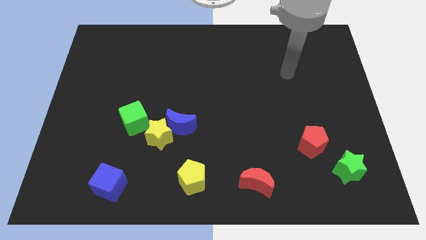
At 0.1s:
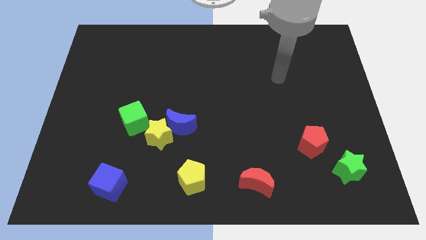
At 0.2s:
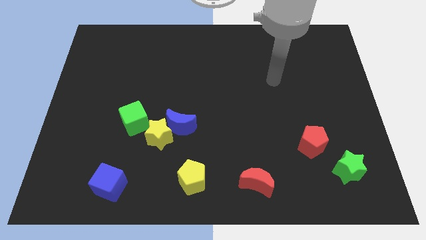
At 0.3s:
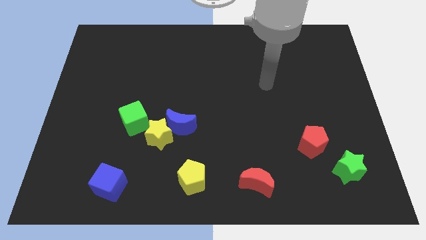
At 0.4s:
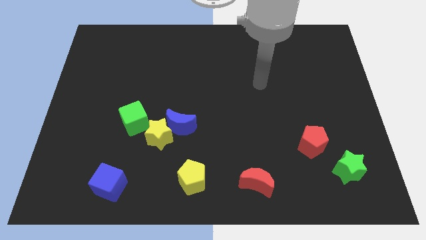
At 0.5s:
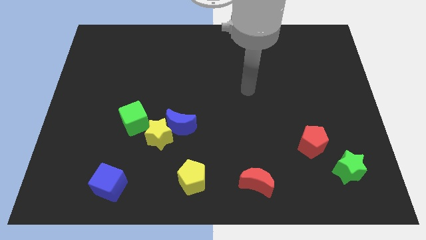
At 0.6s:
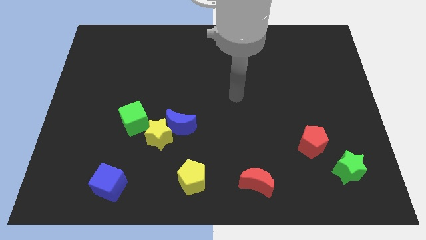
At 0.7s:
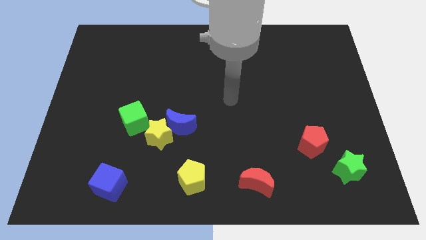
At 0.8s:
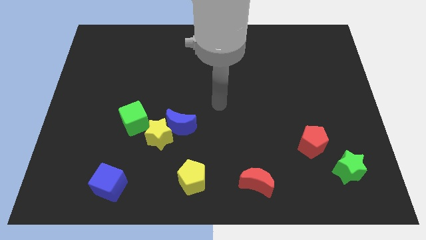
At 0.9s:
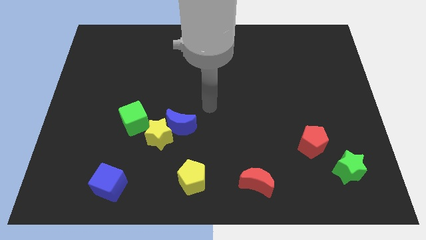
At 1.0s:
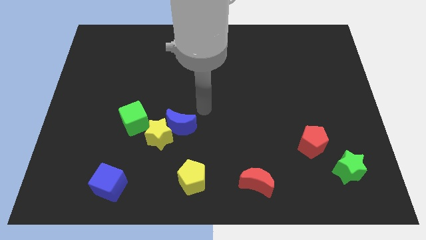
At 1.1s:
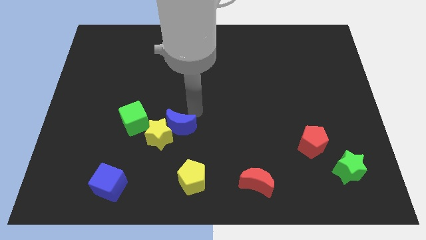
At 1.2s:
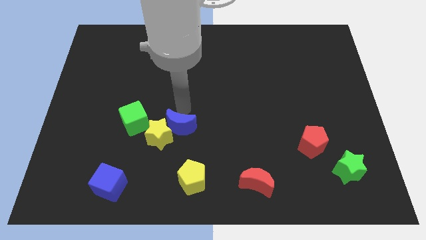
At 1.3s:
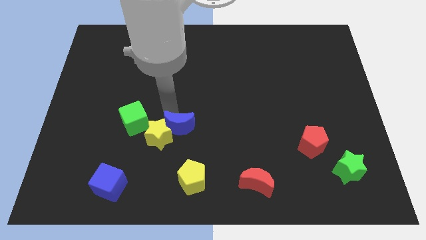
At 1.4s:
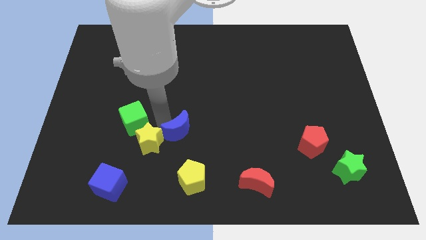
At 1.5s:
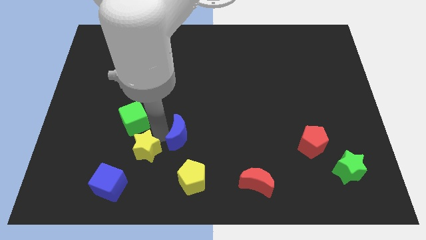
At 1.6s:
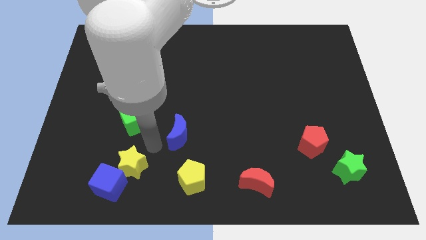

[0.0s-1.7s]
move the blue moon away from the yellow star

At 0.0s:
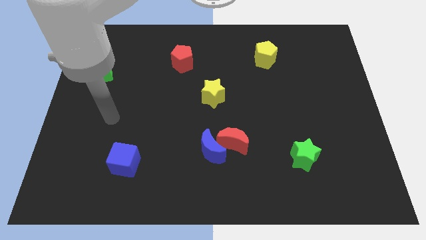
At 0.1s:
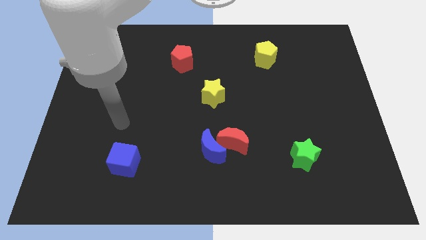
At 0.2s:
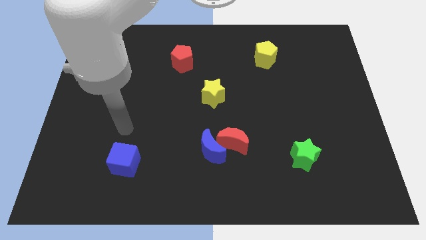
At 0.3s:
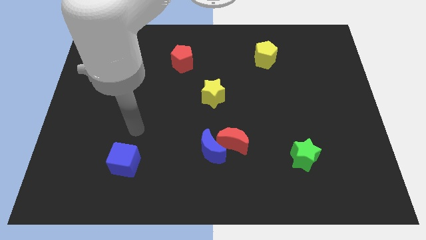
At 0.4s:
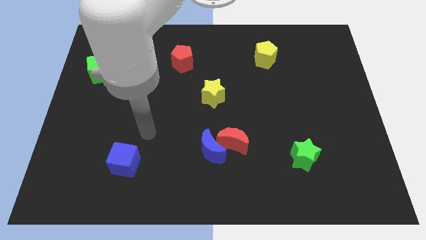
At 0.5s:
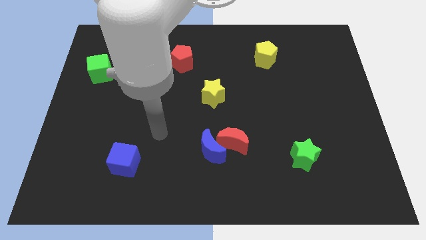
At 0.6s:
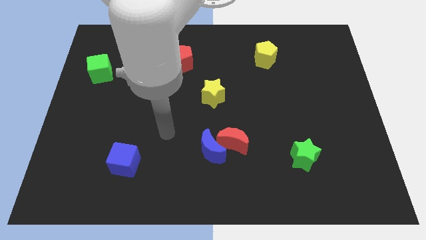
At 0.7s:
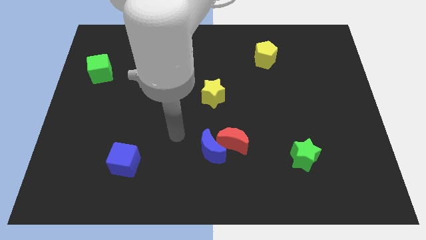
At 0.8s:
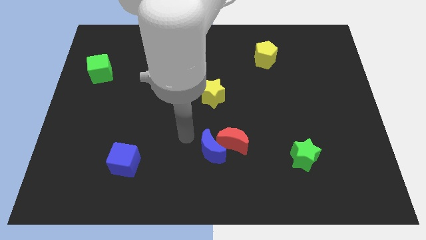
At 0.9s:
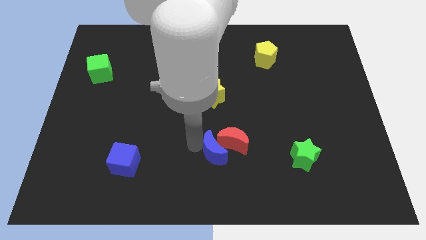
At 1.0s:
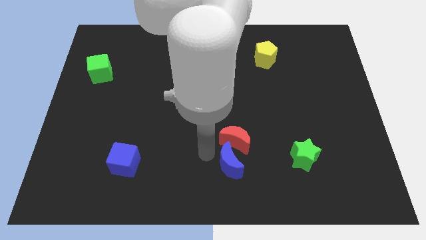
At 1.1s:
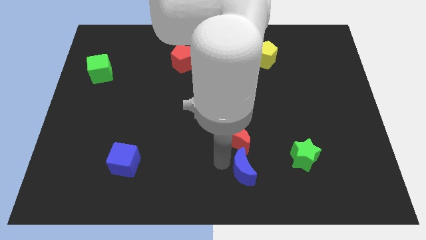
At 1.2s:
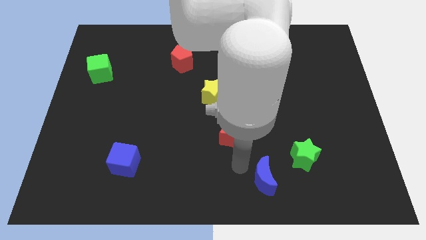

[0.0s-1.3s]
pull the red moon apart from the blue moon

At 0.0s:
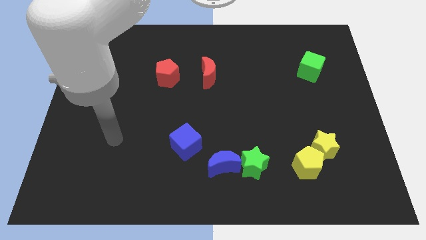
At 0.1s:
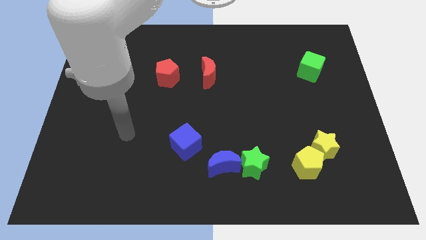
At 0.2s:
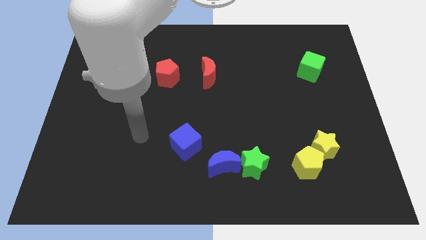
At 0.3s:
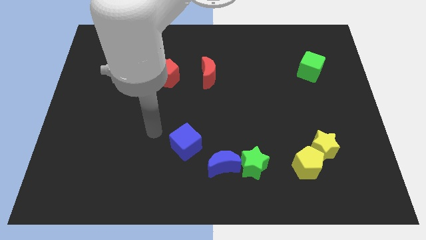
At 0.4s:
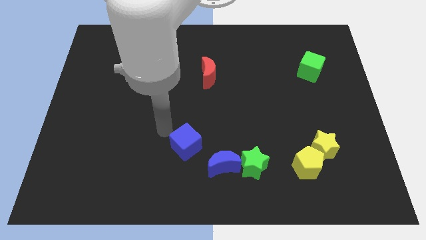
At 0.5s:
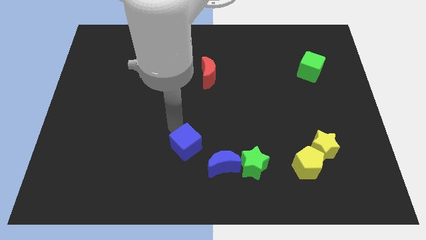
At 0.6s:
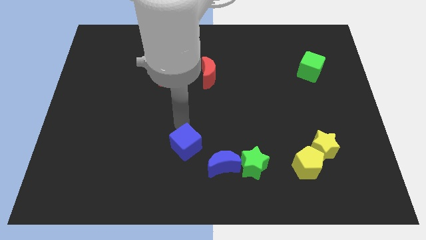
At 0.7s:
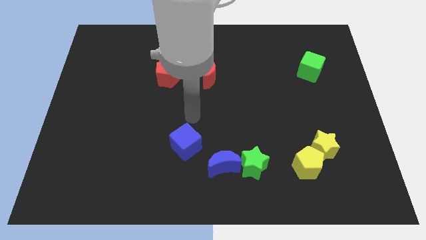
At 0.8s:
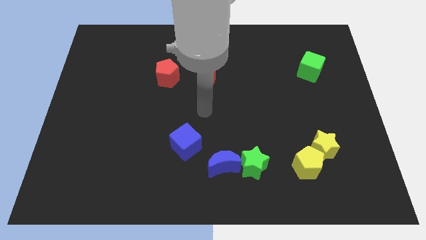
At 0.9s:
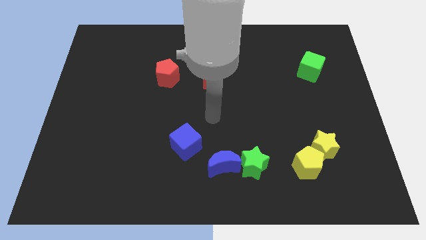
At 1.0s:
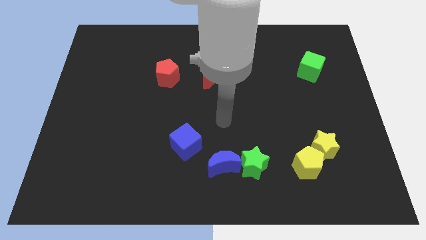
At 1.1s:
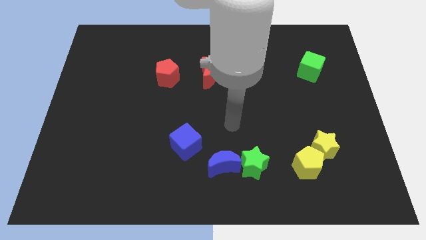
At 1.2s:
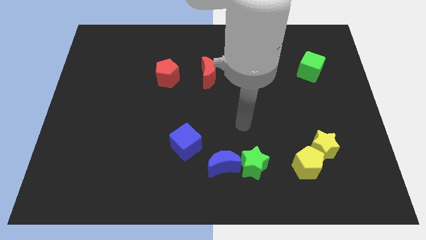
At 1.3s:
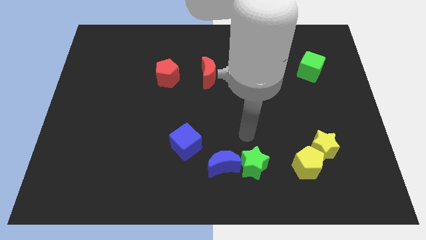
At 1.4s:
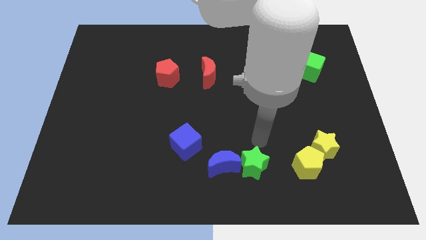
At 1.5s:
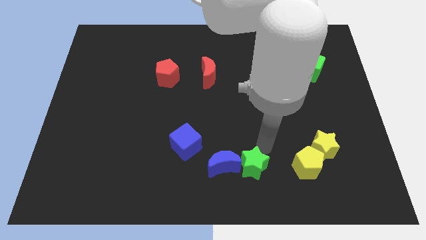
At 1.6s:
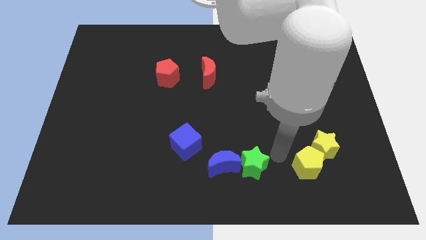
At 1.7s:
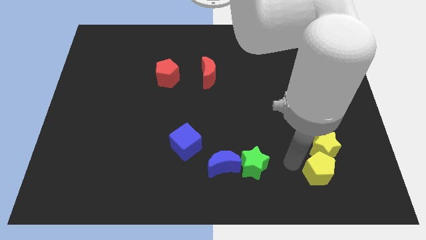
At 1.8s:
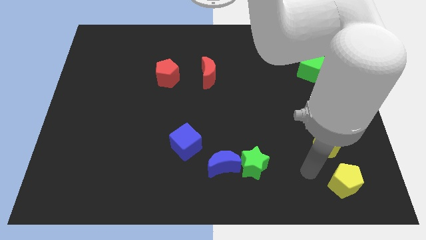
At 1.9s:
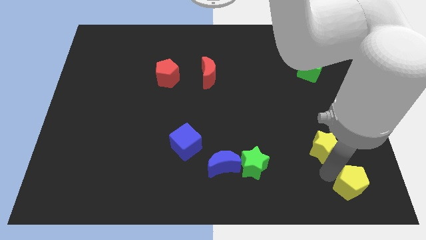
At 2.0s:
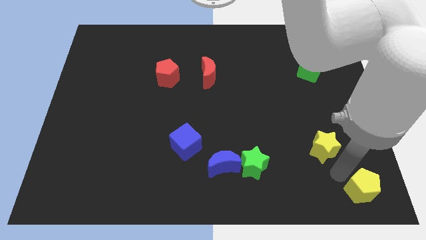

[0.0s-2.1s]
separate the yellow star from the yellow pentagon

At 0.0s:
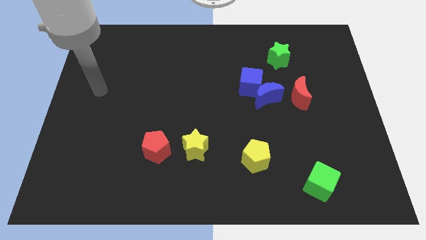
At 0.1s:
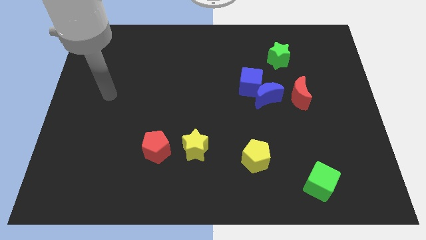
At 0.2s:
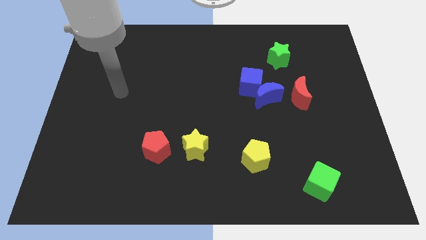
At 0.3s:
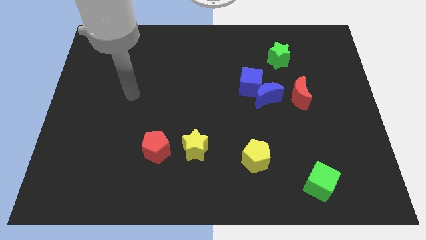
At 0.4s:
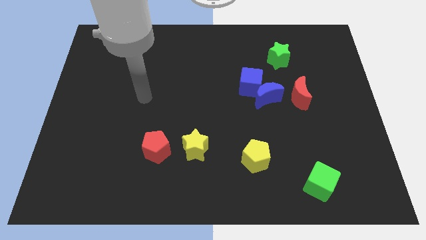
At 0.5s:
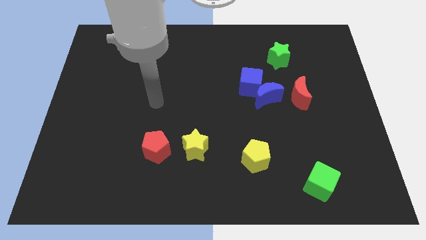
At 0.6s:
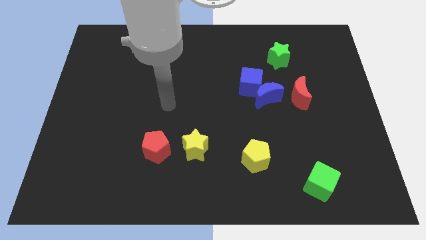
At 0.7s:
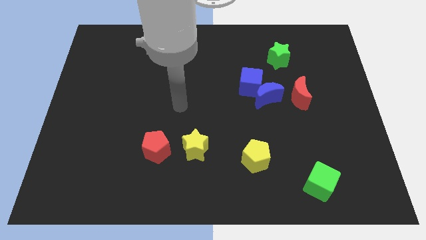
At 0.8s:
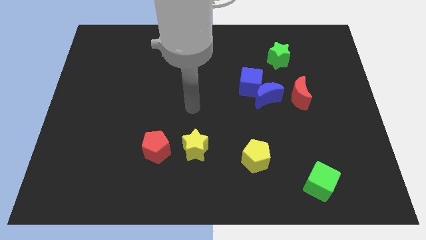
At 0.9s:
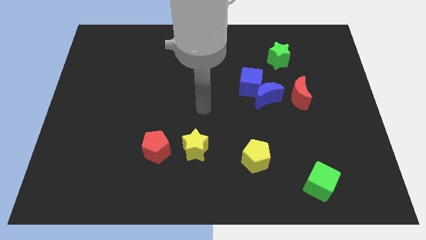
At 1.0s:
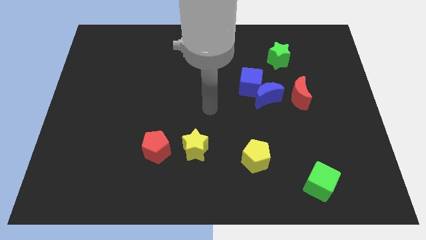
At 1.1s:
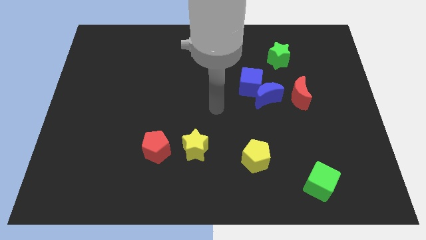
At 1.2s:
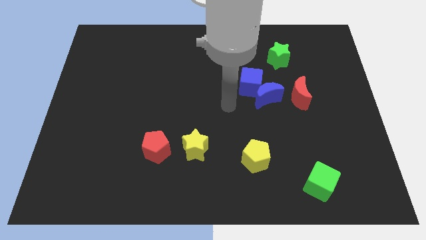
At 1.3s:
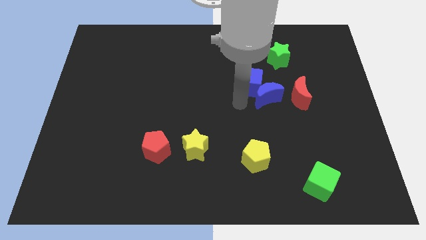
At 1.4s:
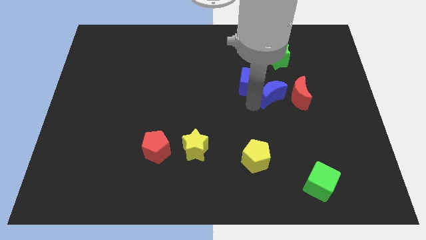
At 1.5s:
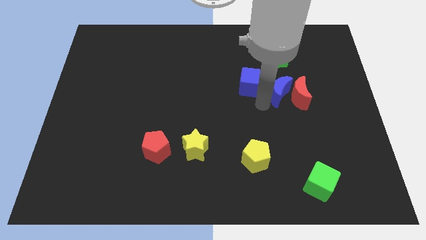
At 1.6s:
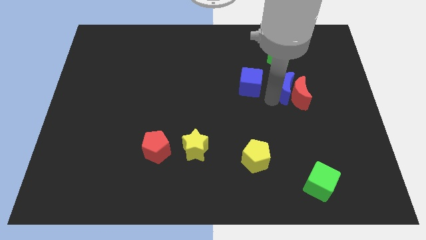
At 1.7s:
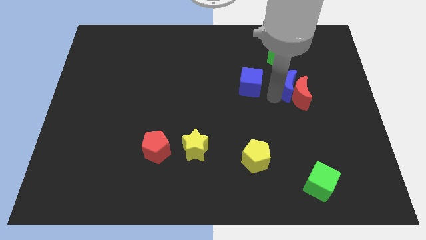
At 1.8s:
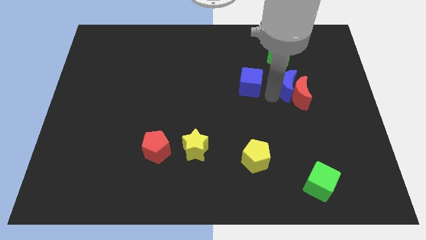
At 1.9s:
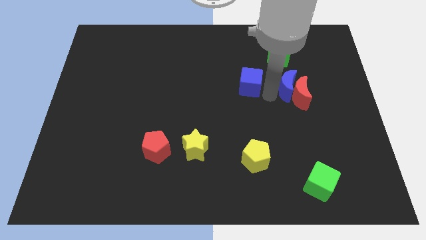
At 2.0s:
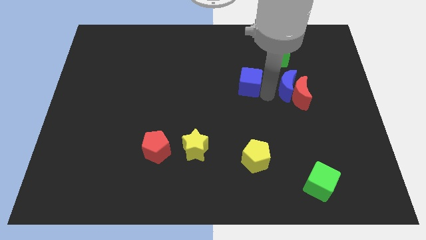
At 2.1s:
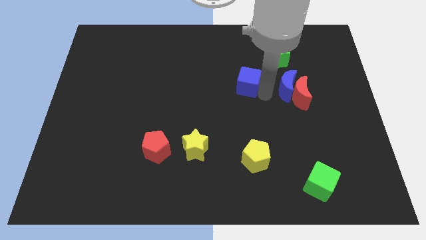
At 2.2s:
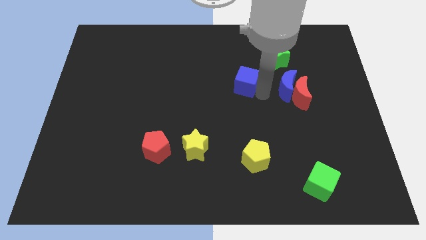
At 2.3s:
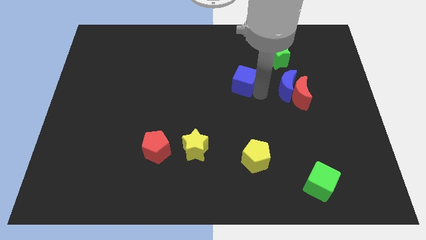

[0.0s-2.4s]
move the blue cube away from the blue moon

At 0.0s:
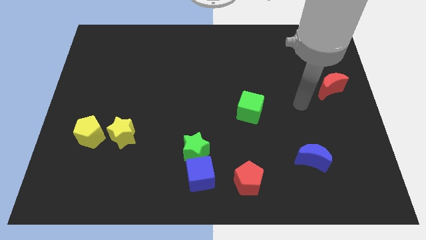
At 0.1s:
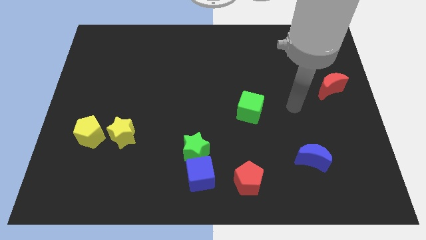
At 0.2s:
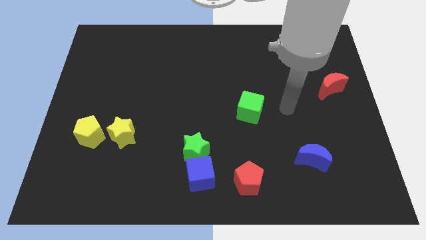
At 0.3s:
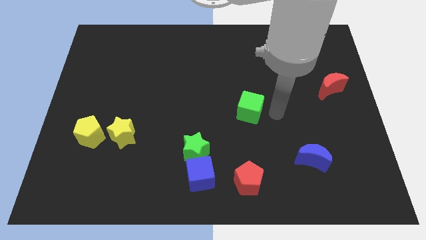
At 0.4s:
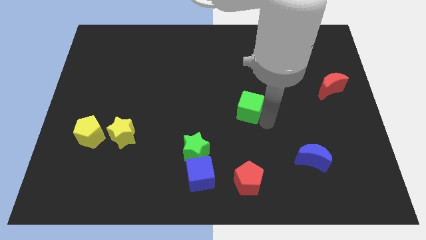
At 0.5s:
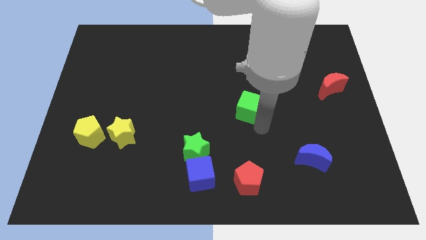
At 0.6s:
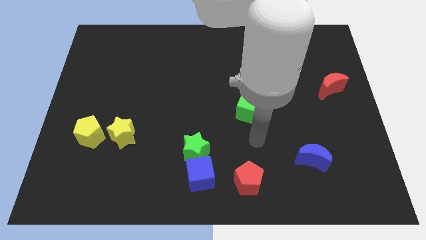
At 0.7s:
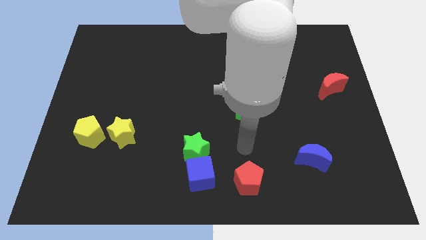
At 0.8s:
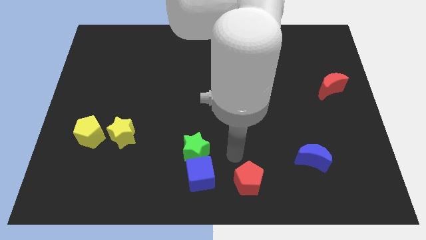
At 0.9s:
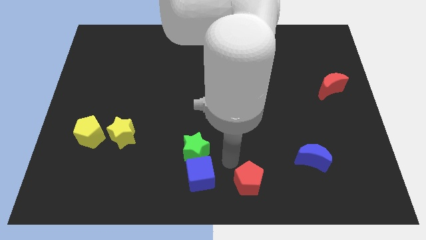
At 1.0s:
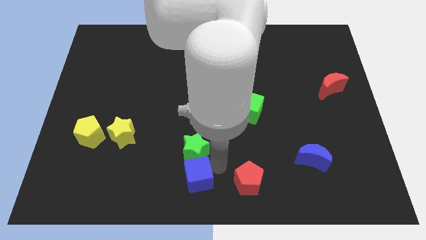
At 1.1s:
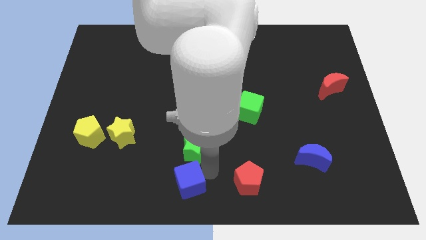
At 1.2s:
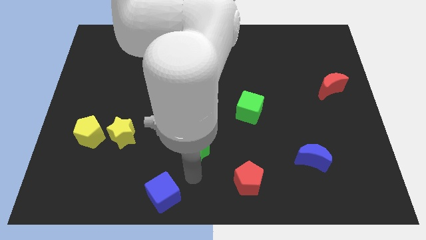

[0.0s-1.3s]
separate the green star from the blue cube

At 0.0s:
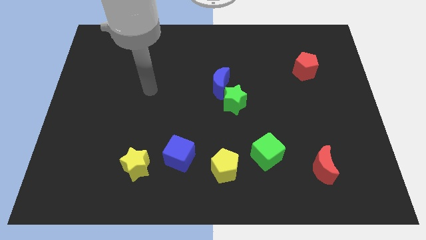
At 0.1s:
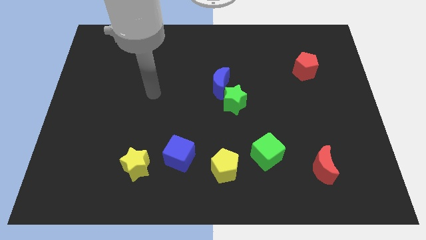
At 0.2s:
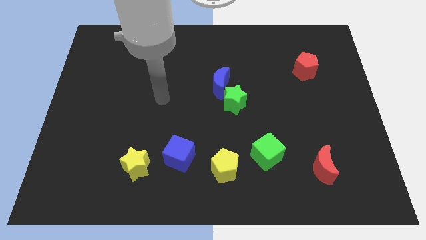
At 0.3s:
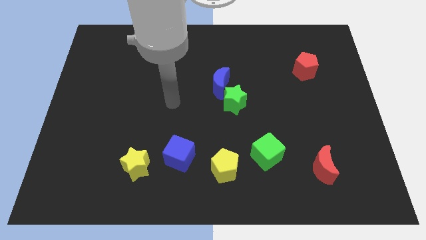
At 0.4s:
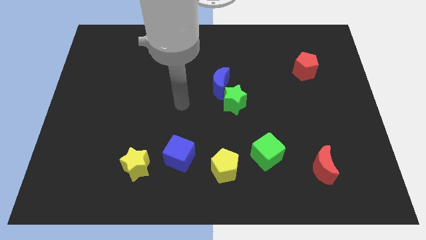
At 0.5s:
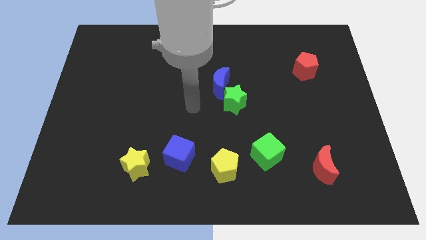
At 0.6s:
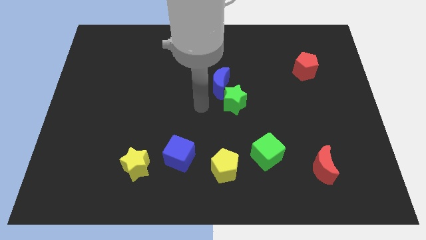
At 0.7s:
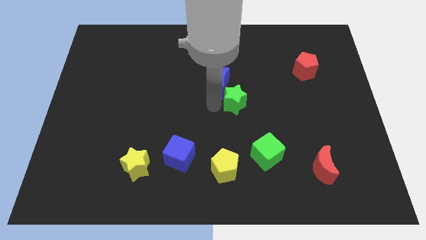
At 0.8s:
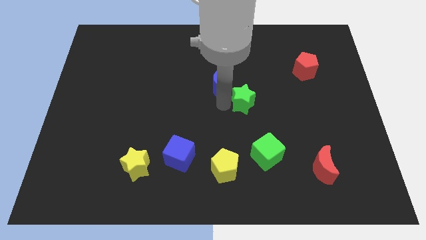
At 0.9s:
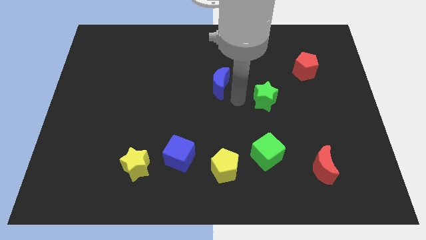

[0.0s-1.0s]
separate the blue moon from the green star
